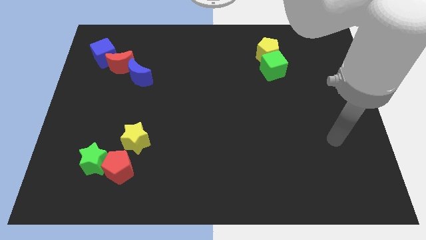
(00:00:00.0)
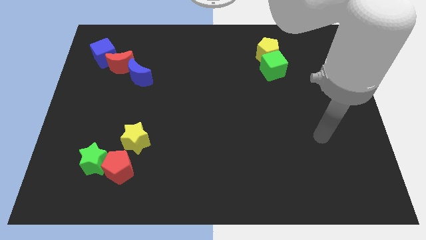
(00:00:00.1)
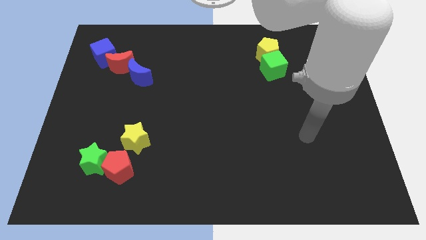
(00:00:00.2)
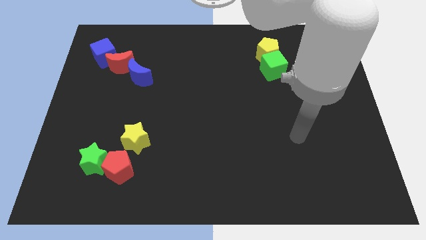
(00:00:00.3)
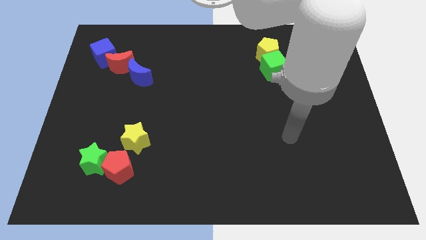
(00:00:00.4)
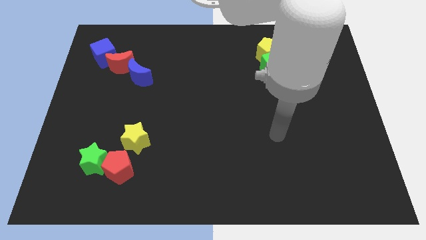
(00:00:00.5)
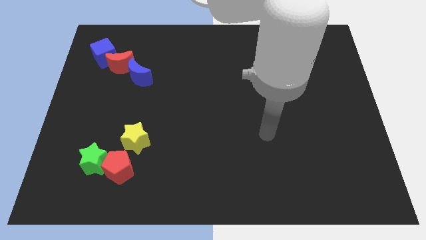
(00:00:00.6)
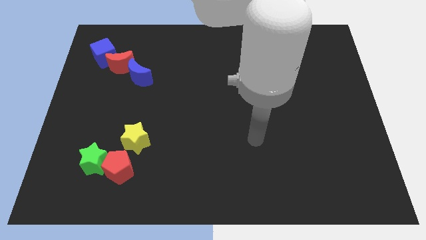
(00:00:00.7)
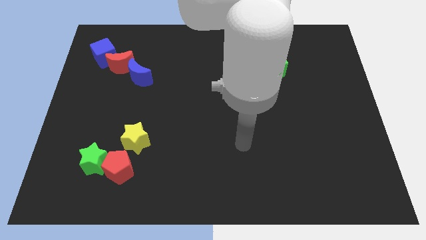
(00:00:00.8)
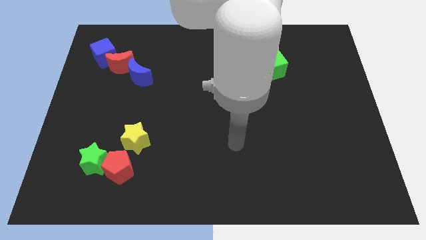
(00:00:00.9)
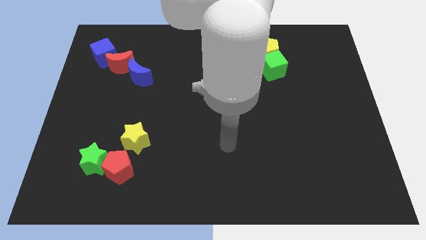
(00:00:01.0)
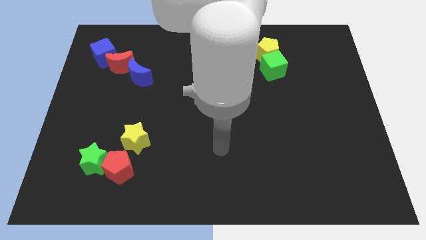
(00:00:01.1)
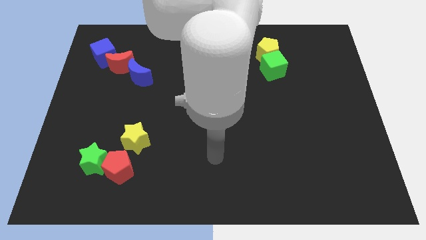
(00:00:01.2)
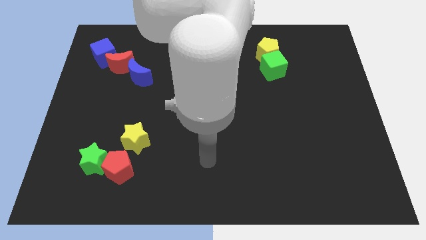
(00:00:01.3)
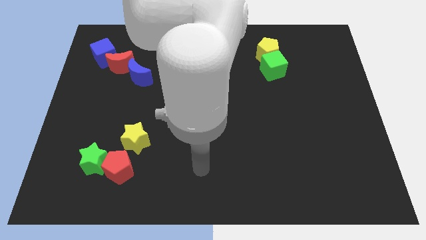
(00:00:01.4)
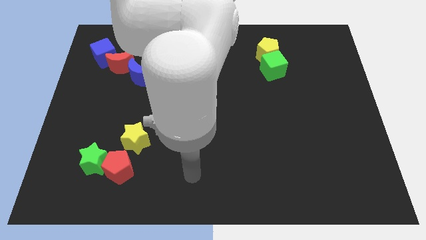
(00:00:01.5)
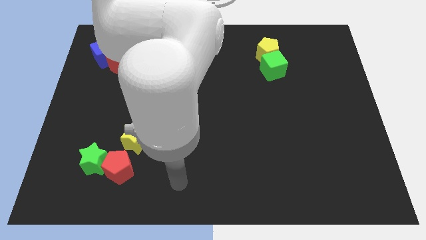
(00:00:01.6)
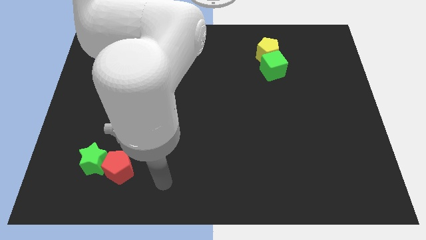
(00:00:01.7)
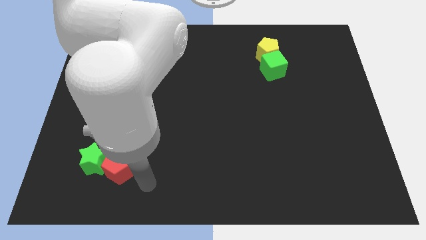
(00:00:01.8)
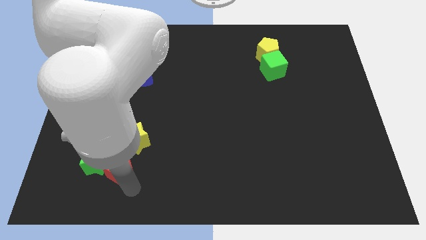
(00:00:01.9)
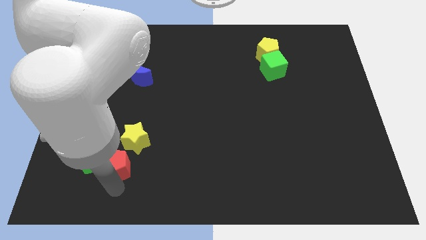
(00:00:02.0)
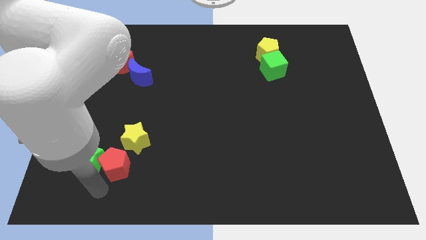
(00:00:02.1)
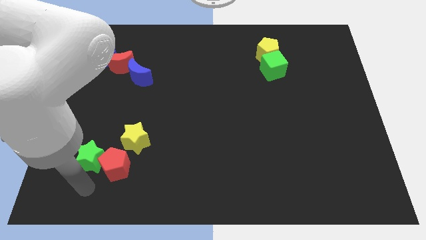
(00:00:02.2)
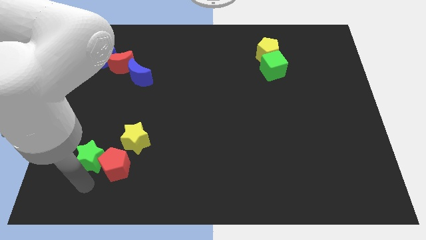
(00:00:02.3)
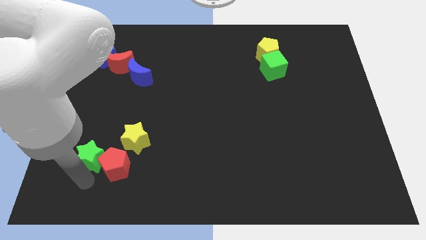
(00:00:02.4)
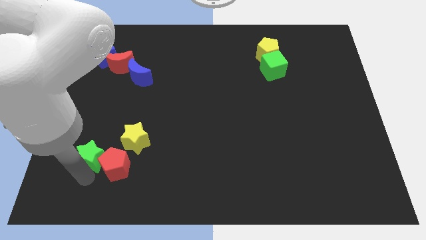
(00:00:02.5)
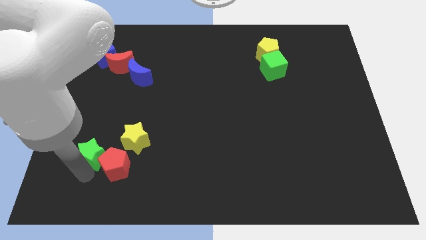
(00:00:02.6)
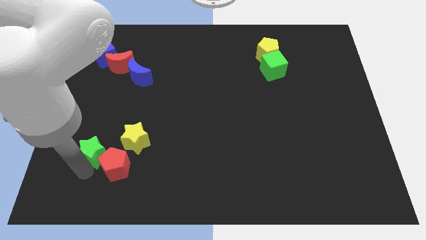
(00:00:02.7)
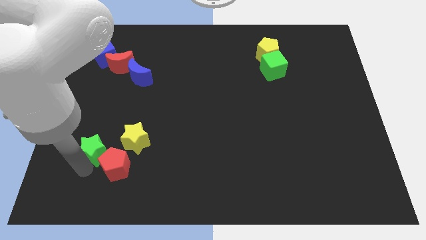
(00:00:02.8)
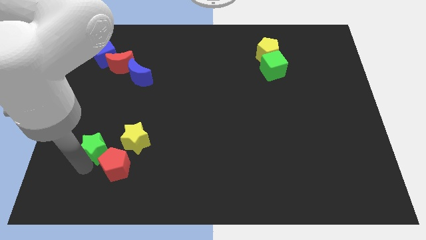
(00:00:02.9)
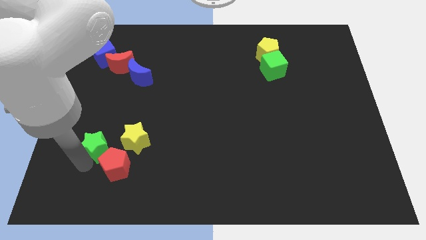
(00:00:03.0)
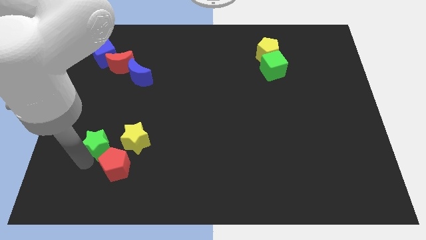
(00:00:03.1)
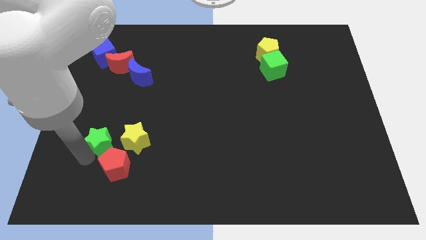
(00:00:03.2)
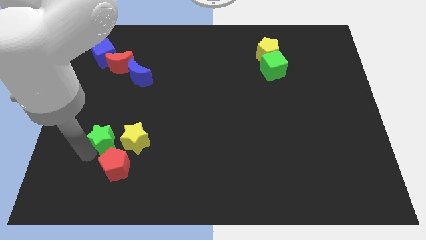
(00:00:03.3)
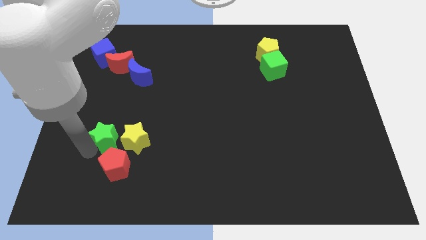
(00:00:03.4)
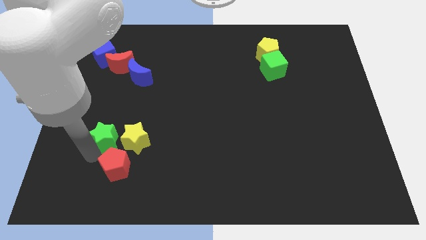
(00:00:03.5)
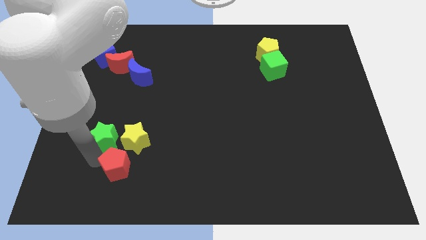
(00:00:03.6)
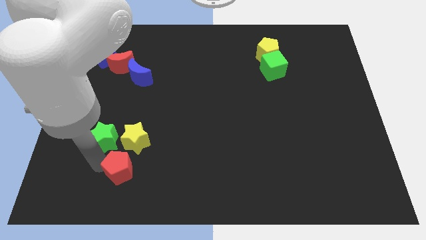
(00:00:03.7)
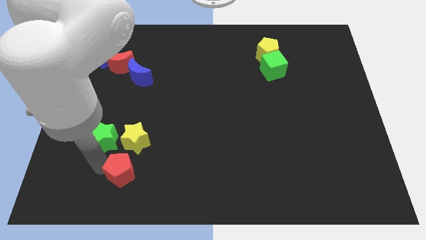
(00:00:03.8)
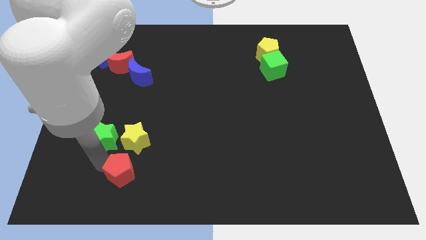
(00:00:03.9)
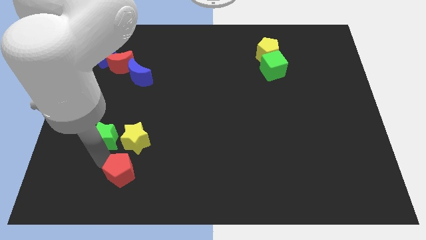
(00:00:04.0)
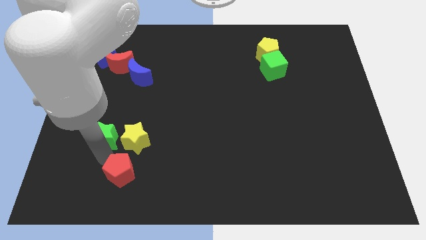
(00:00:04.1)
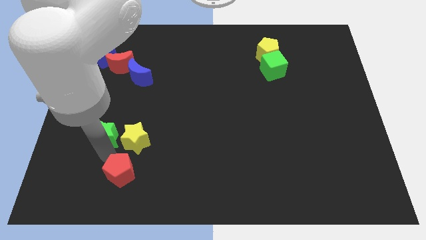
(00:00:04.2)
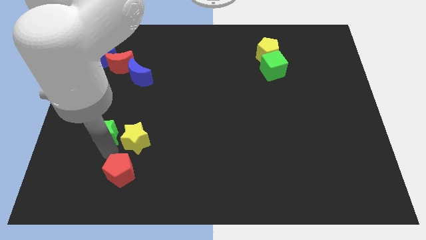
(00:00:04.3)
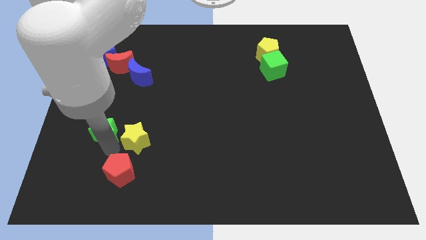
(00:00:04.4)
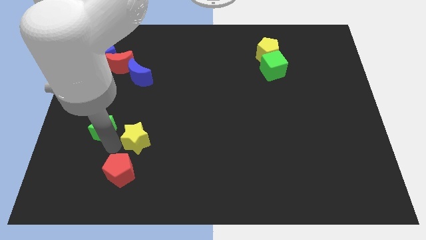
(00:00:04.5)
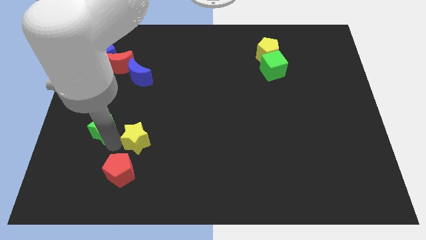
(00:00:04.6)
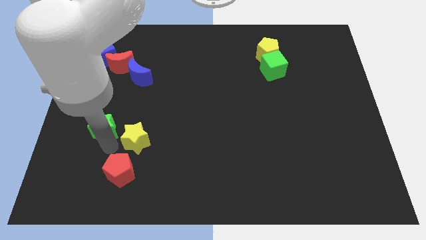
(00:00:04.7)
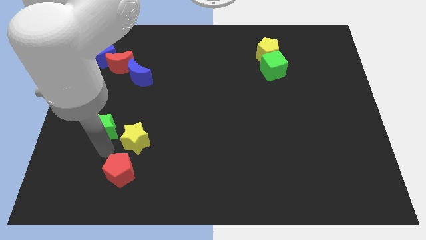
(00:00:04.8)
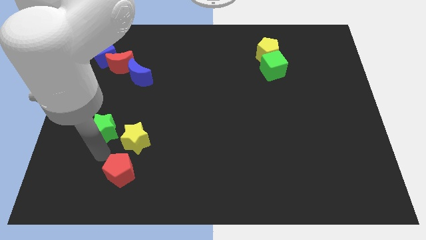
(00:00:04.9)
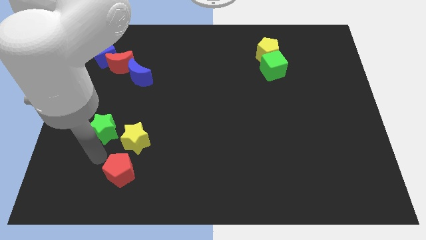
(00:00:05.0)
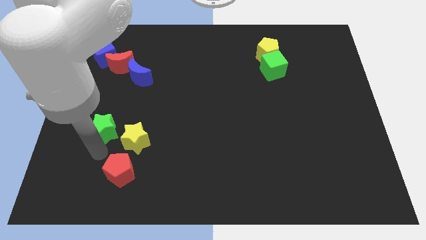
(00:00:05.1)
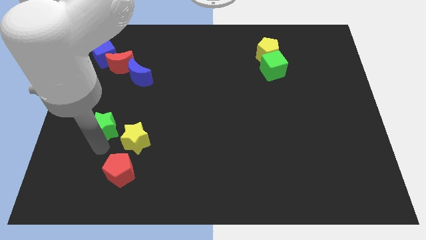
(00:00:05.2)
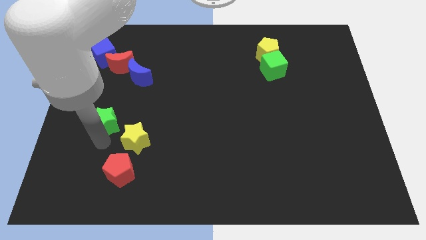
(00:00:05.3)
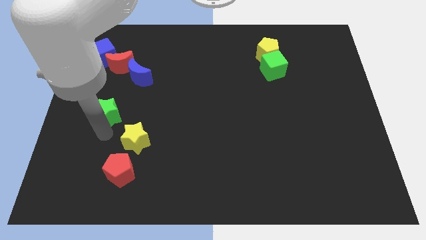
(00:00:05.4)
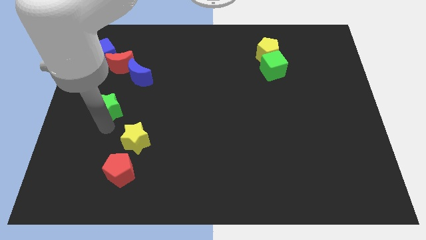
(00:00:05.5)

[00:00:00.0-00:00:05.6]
slide the green star diagonally down and to the left of the blue moon

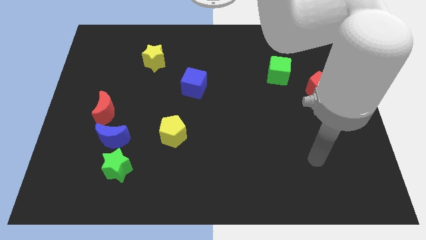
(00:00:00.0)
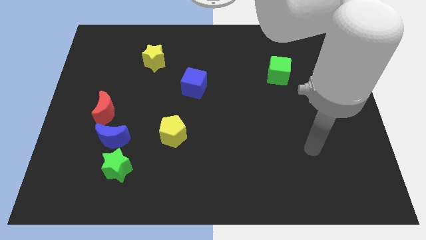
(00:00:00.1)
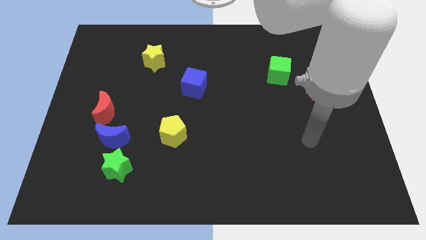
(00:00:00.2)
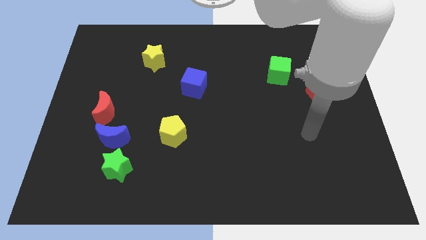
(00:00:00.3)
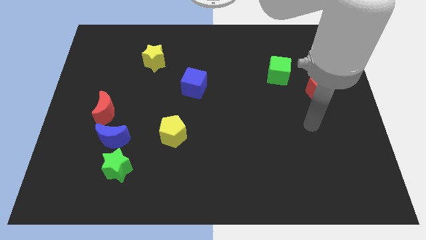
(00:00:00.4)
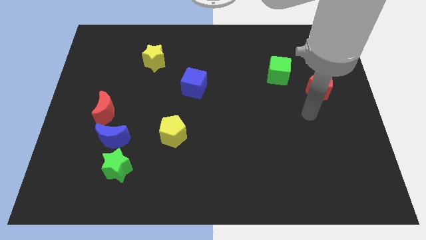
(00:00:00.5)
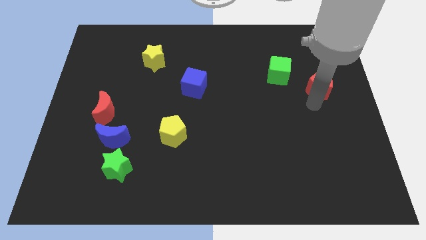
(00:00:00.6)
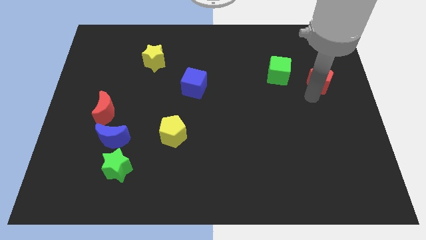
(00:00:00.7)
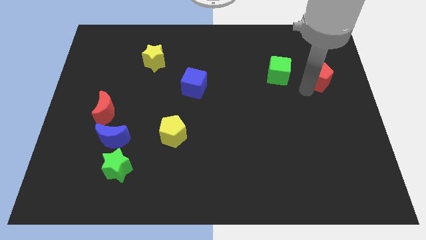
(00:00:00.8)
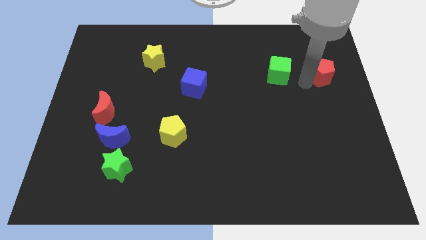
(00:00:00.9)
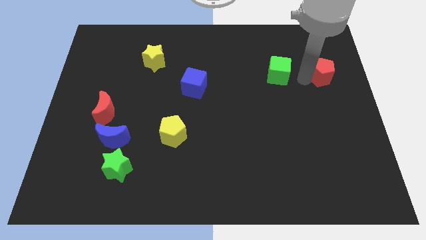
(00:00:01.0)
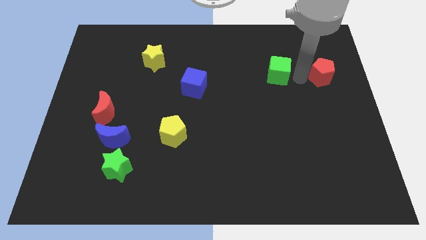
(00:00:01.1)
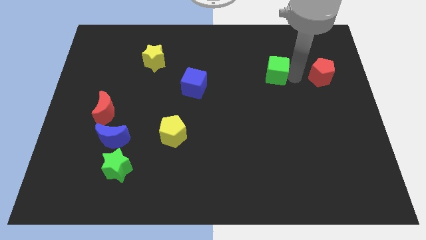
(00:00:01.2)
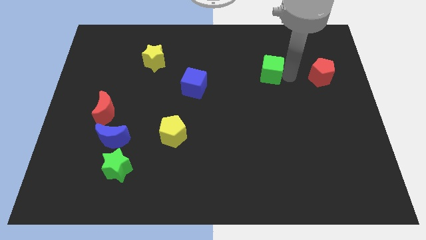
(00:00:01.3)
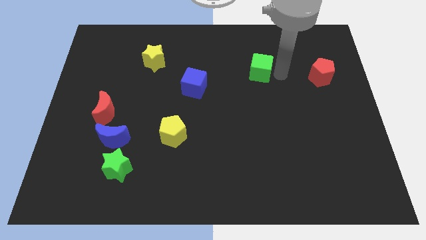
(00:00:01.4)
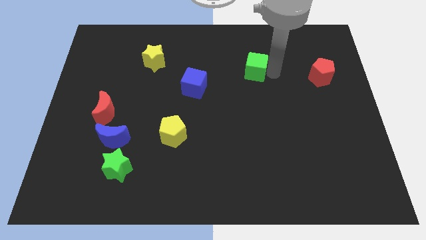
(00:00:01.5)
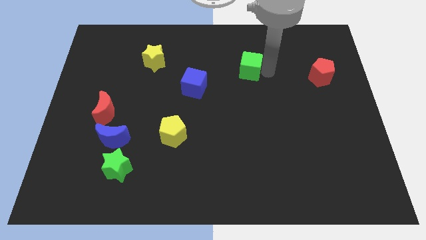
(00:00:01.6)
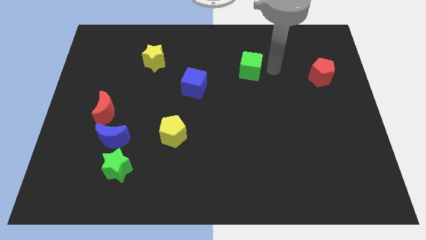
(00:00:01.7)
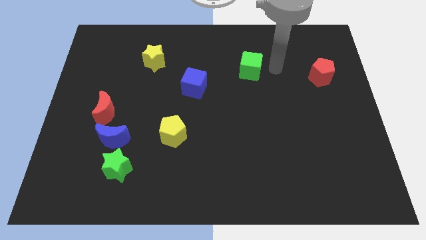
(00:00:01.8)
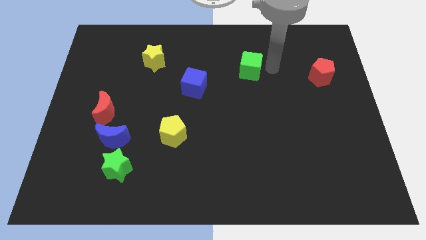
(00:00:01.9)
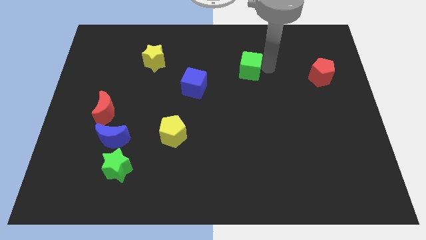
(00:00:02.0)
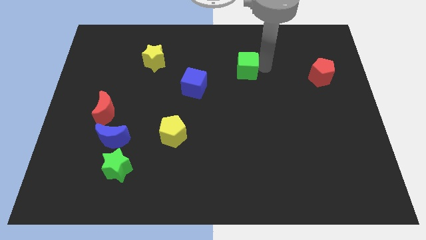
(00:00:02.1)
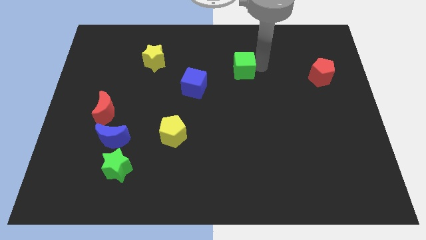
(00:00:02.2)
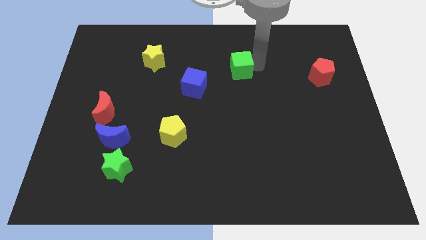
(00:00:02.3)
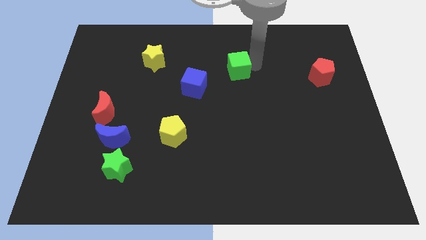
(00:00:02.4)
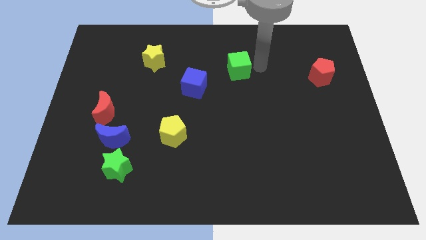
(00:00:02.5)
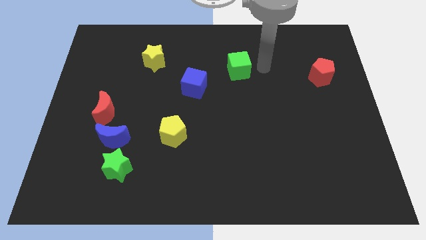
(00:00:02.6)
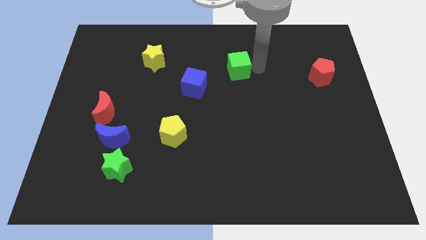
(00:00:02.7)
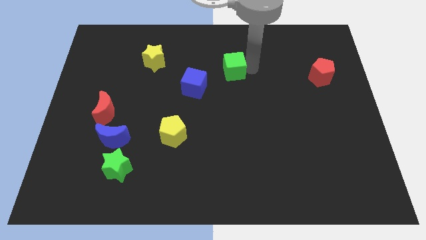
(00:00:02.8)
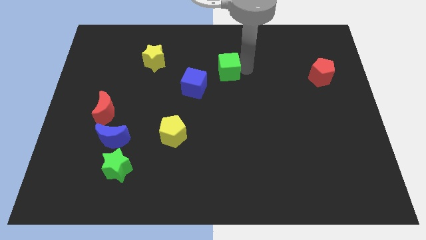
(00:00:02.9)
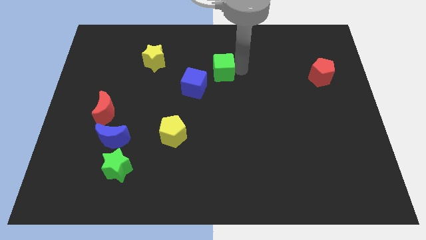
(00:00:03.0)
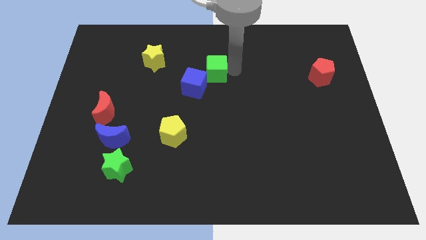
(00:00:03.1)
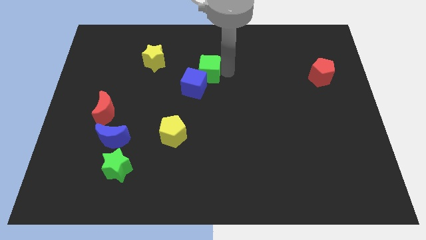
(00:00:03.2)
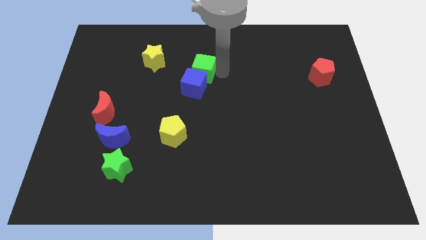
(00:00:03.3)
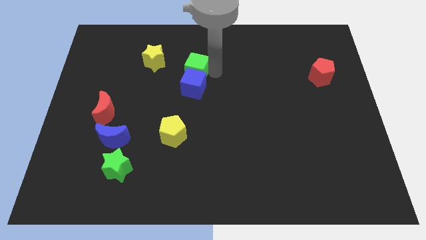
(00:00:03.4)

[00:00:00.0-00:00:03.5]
slide the green cube diagonally up and to the left of the blue cube
